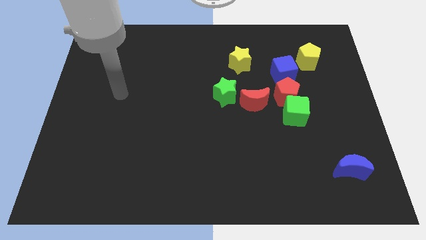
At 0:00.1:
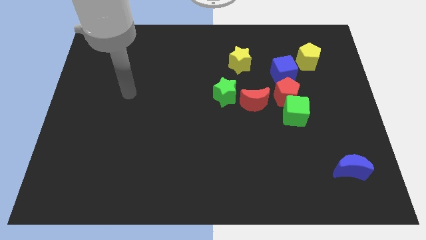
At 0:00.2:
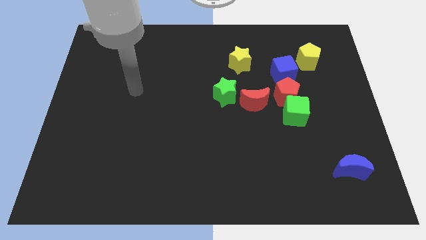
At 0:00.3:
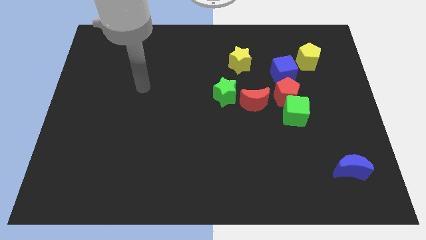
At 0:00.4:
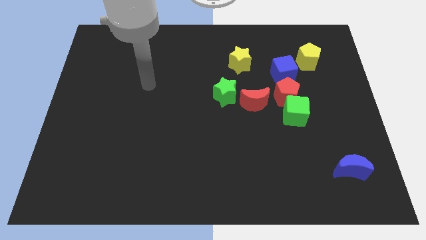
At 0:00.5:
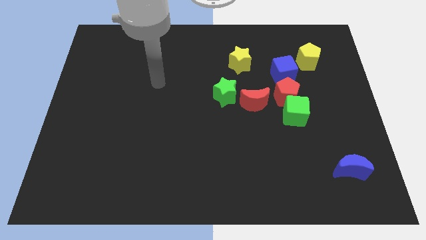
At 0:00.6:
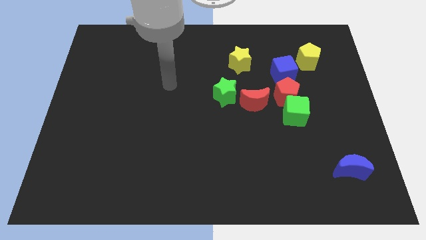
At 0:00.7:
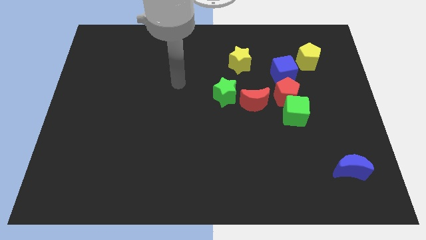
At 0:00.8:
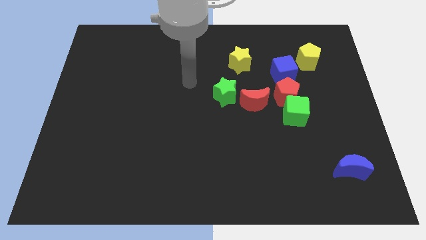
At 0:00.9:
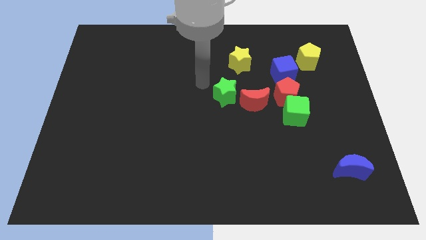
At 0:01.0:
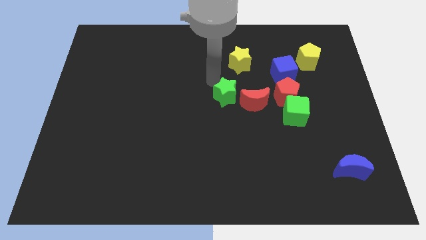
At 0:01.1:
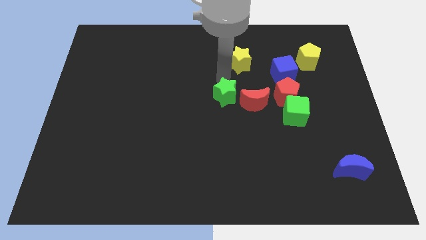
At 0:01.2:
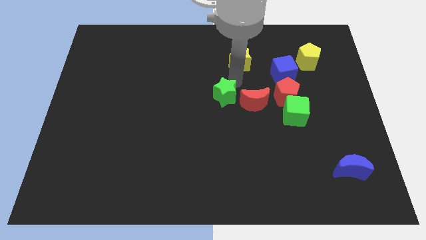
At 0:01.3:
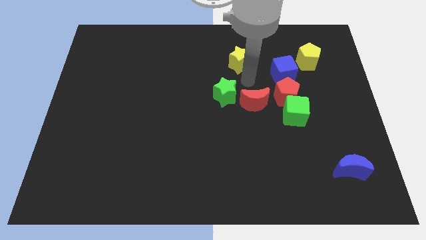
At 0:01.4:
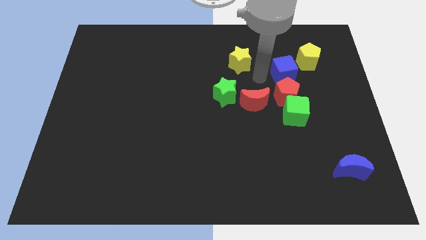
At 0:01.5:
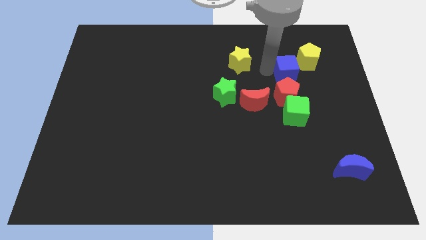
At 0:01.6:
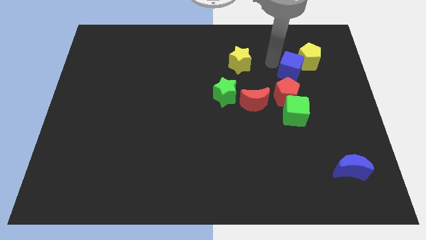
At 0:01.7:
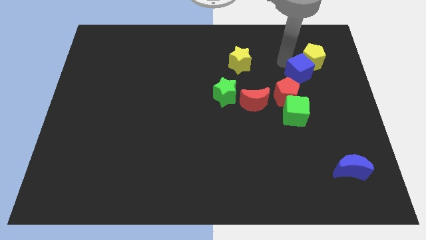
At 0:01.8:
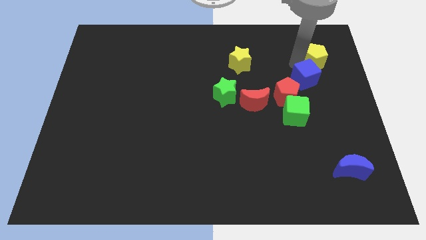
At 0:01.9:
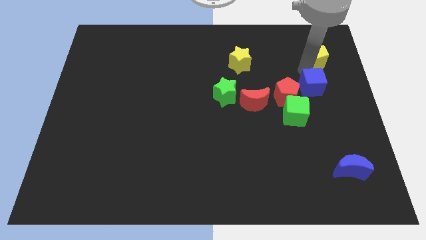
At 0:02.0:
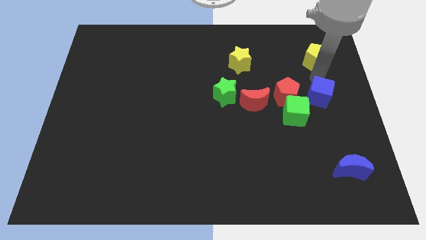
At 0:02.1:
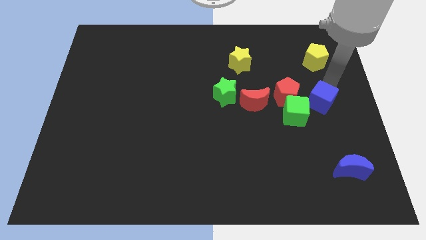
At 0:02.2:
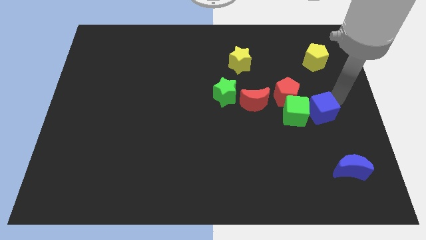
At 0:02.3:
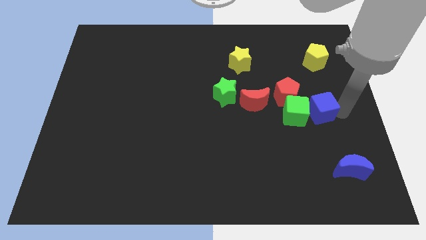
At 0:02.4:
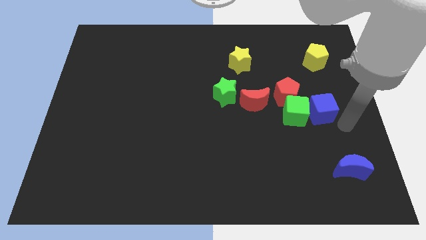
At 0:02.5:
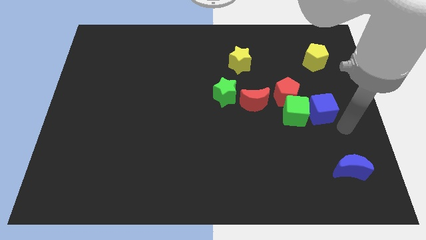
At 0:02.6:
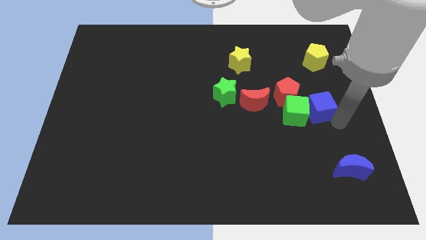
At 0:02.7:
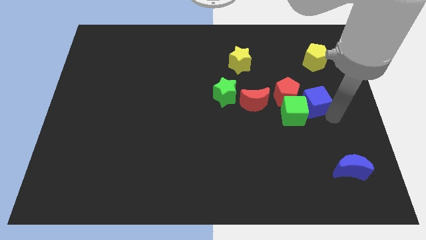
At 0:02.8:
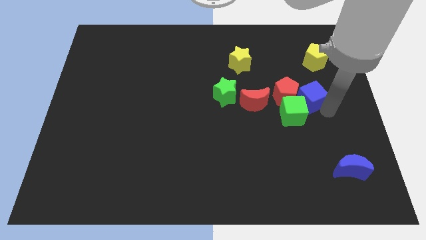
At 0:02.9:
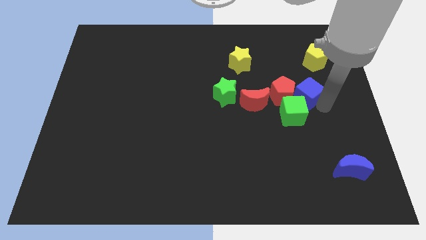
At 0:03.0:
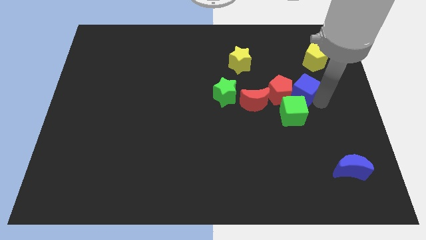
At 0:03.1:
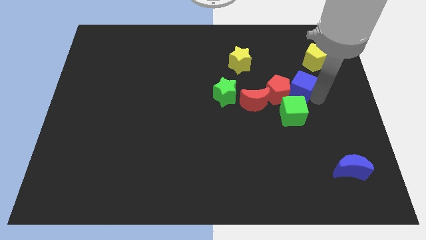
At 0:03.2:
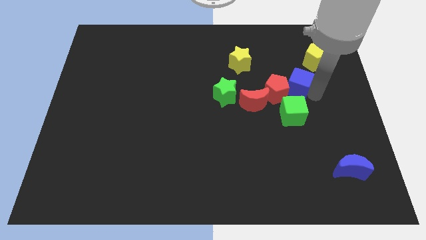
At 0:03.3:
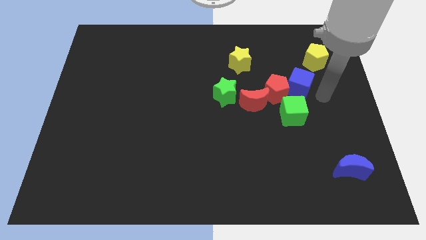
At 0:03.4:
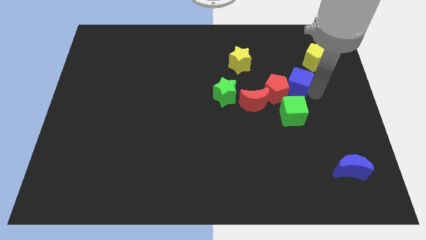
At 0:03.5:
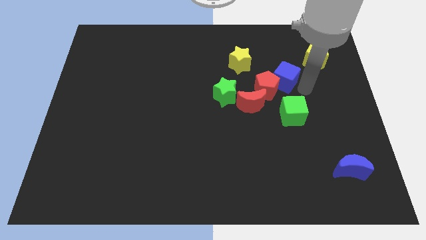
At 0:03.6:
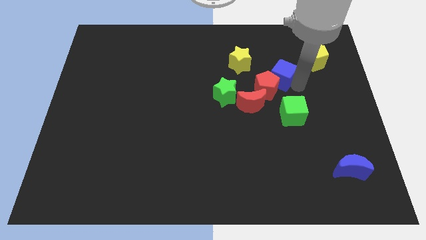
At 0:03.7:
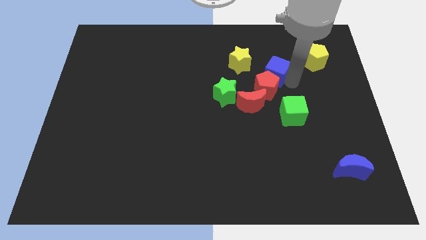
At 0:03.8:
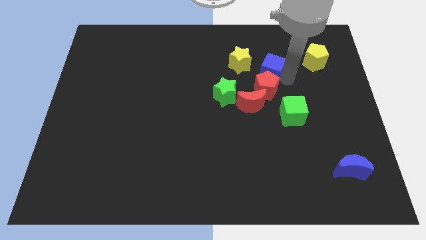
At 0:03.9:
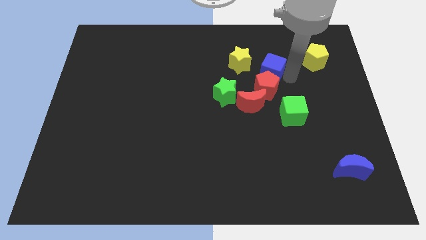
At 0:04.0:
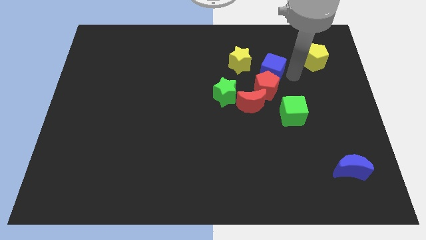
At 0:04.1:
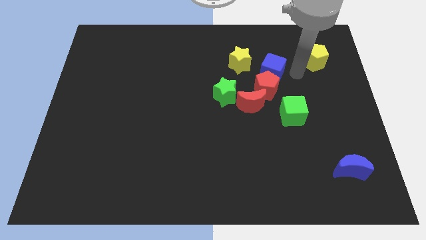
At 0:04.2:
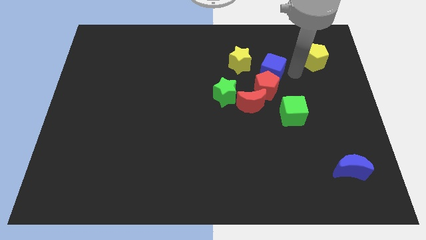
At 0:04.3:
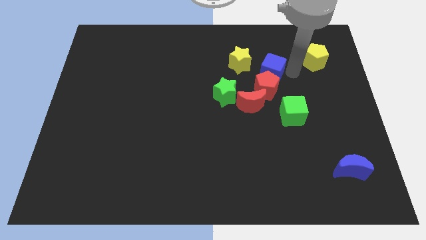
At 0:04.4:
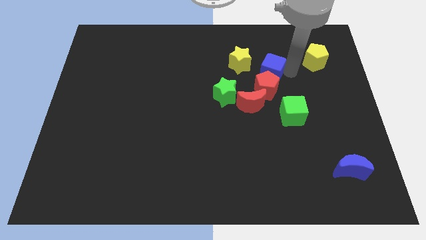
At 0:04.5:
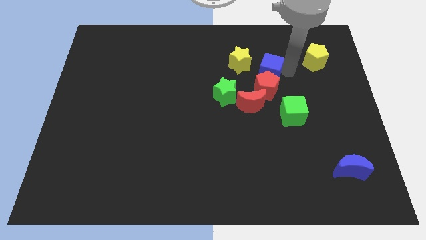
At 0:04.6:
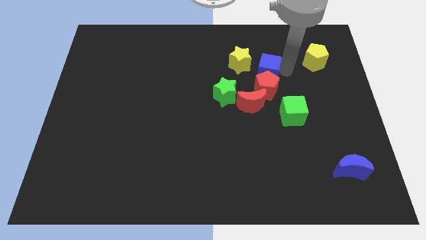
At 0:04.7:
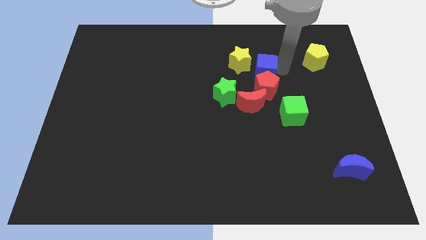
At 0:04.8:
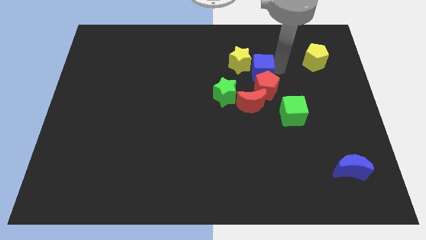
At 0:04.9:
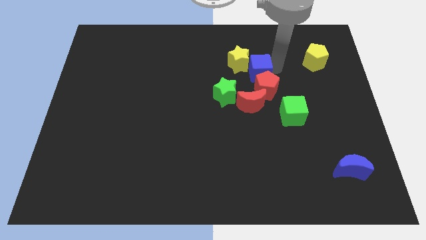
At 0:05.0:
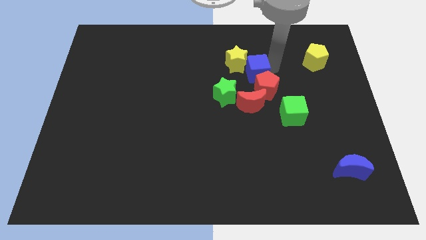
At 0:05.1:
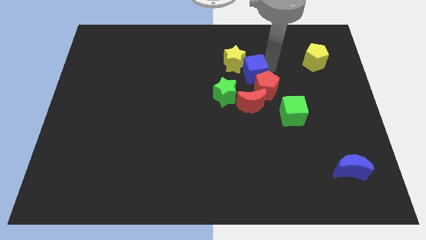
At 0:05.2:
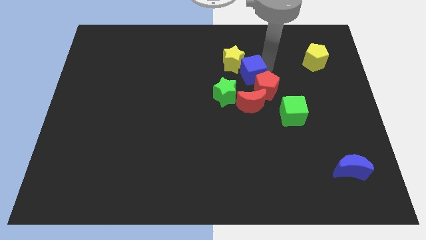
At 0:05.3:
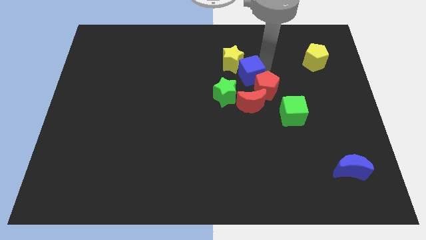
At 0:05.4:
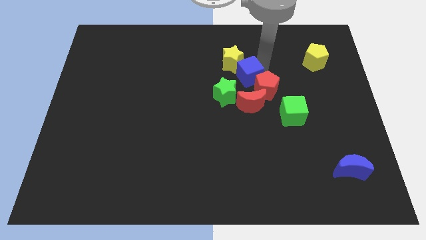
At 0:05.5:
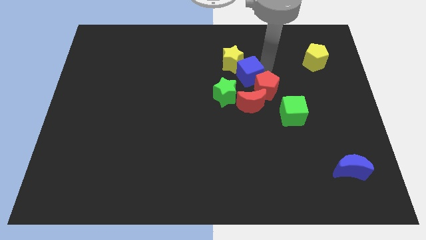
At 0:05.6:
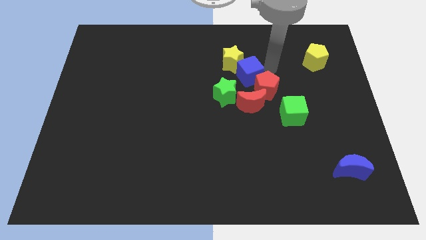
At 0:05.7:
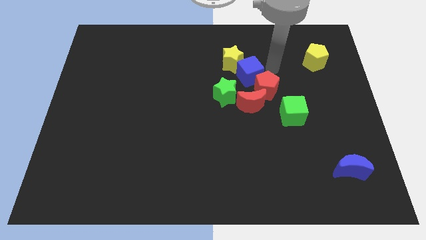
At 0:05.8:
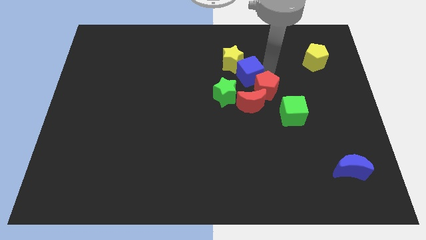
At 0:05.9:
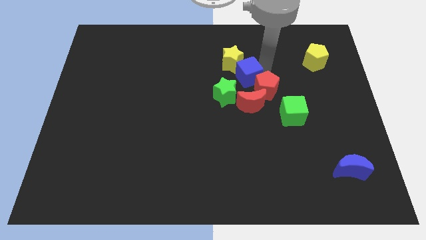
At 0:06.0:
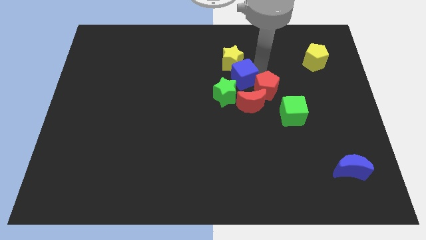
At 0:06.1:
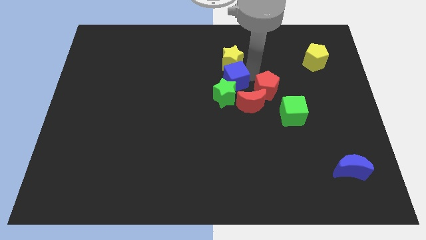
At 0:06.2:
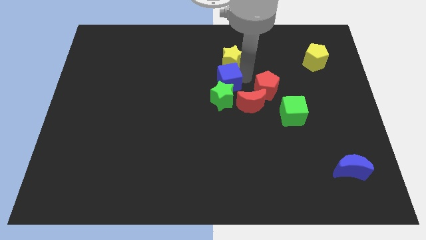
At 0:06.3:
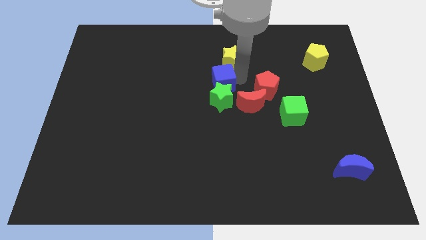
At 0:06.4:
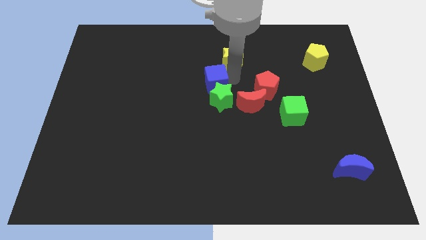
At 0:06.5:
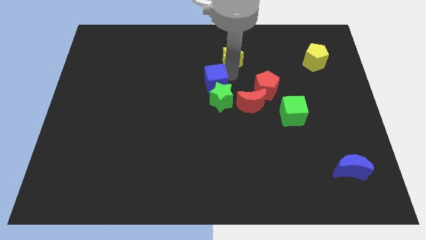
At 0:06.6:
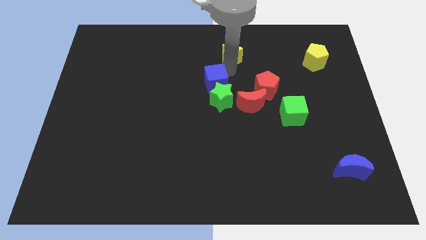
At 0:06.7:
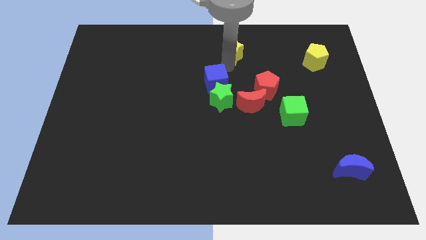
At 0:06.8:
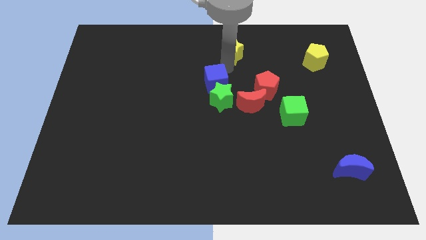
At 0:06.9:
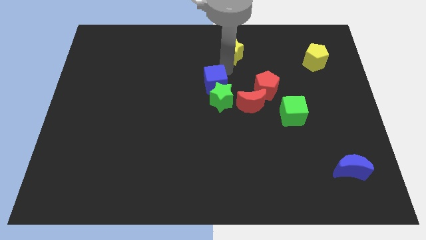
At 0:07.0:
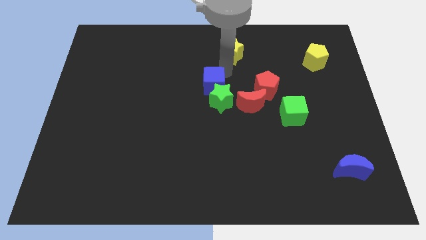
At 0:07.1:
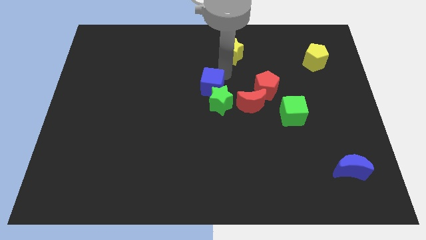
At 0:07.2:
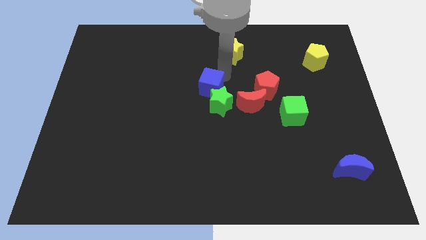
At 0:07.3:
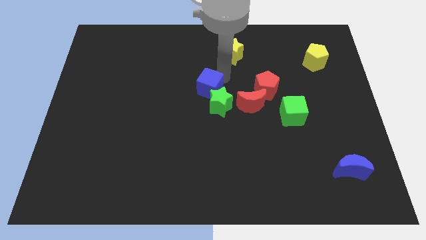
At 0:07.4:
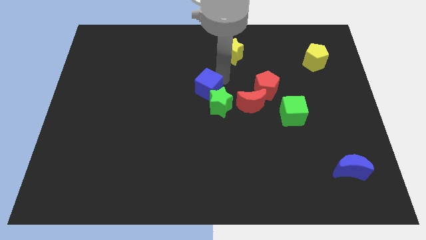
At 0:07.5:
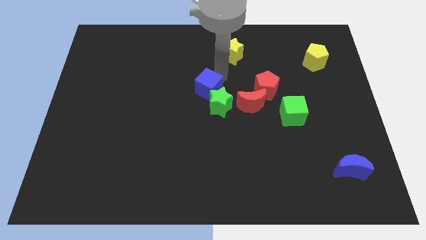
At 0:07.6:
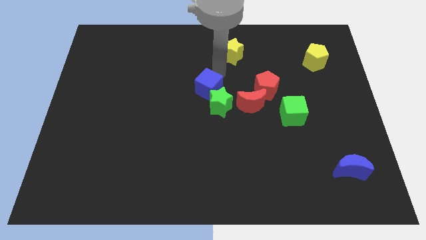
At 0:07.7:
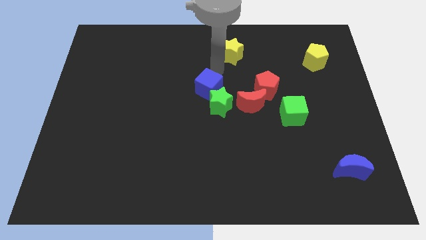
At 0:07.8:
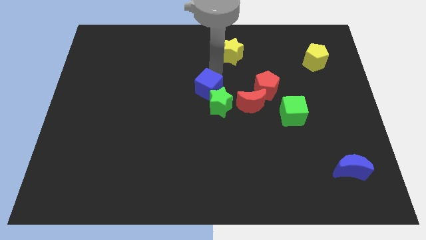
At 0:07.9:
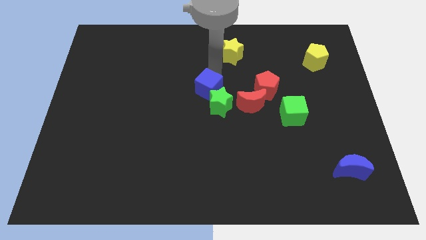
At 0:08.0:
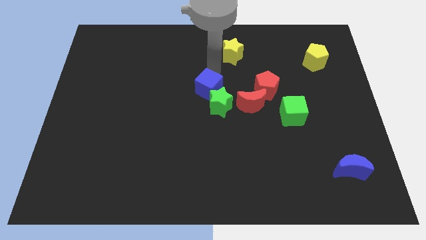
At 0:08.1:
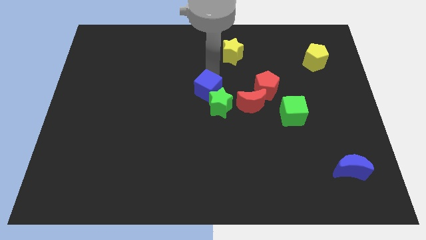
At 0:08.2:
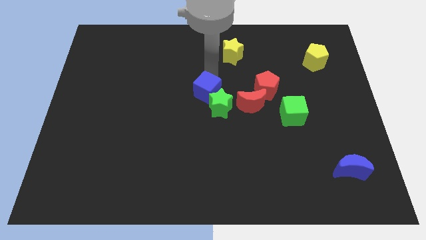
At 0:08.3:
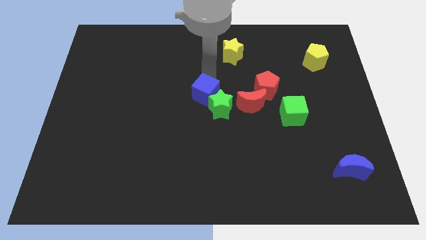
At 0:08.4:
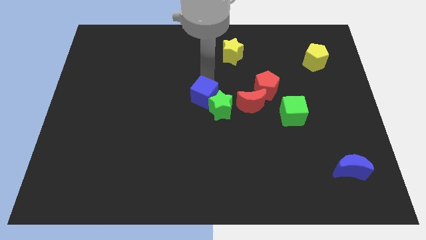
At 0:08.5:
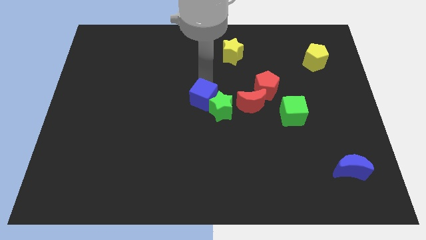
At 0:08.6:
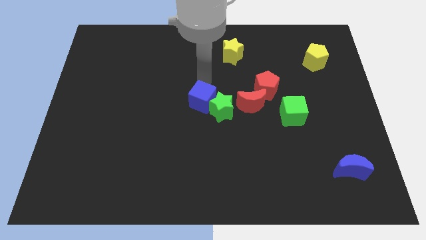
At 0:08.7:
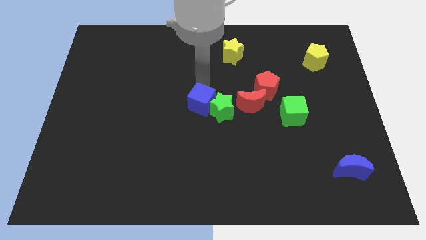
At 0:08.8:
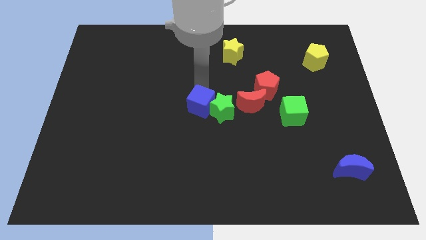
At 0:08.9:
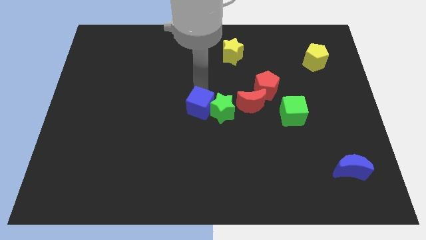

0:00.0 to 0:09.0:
slide the blue cube down and left
